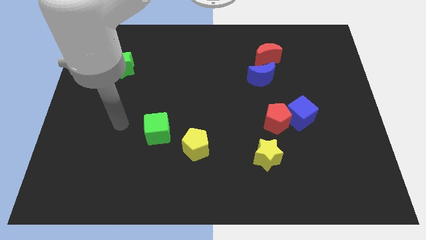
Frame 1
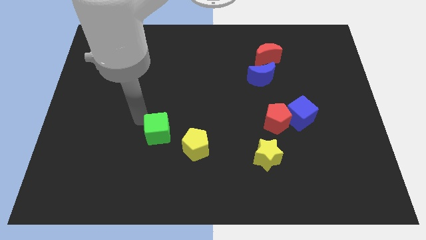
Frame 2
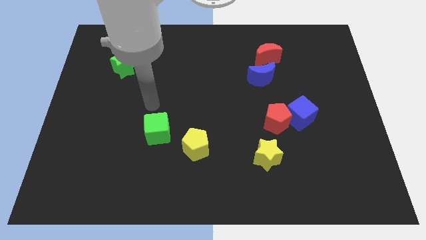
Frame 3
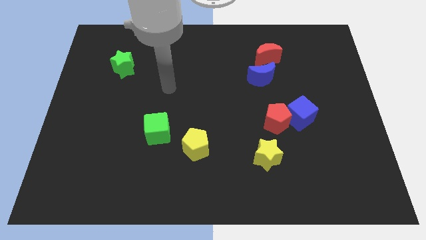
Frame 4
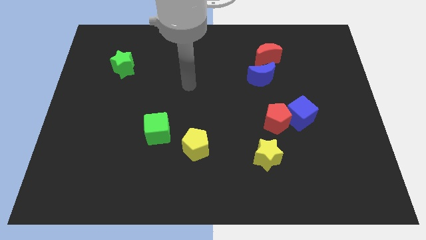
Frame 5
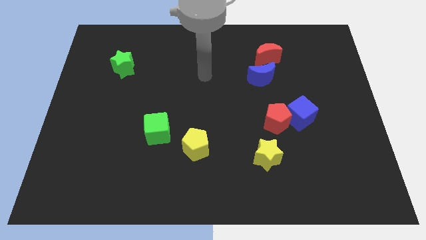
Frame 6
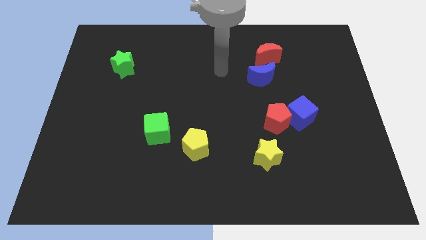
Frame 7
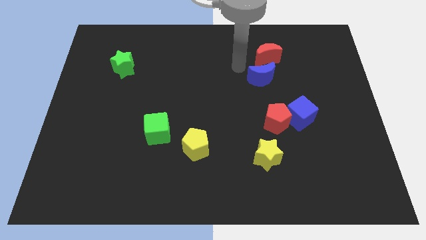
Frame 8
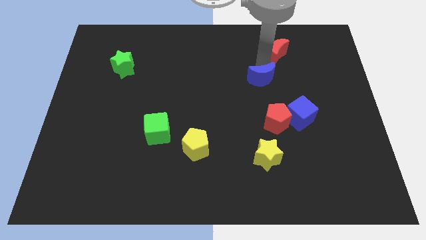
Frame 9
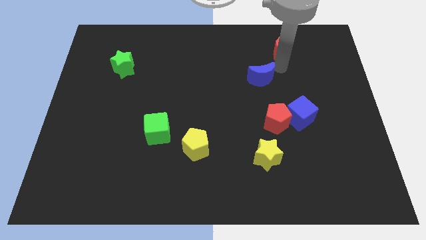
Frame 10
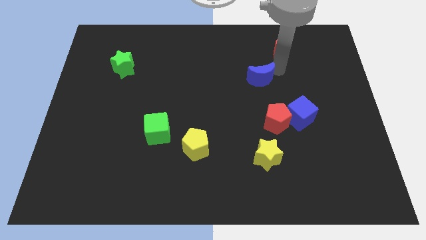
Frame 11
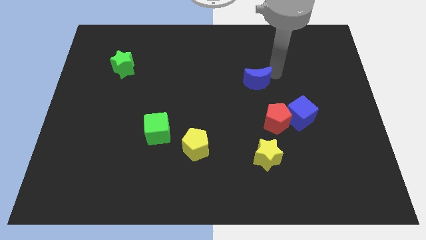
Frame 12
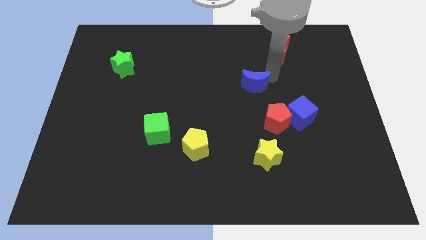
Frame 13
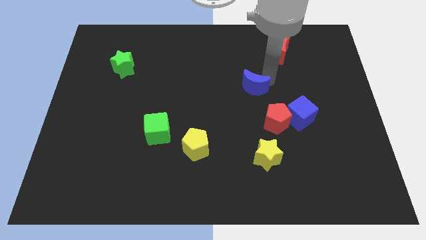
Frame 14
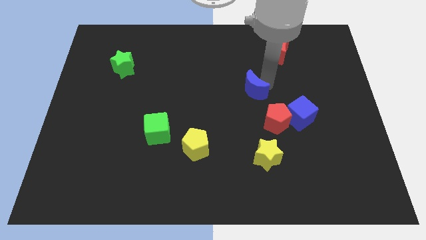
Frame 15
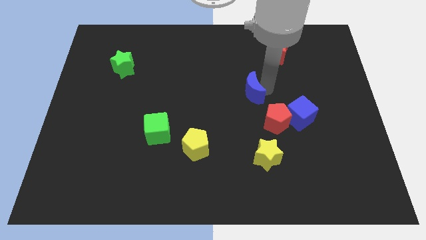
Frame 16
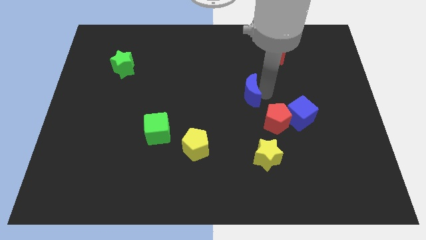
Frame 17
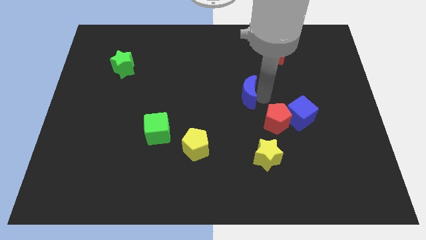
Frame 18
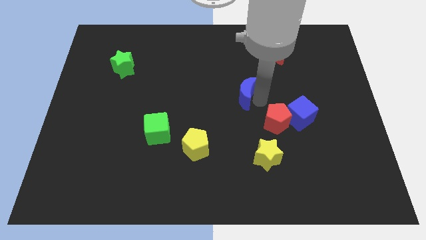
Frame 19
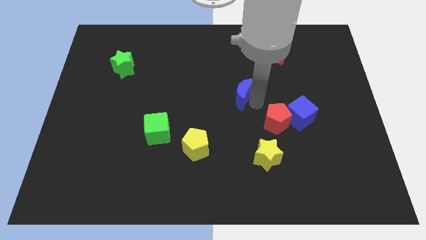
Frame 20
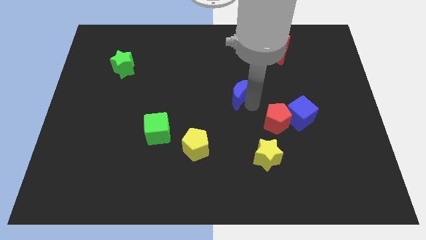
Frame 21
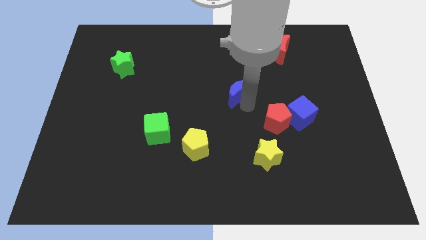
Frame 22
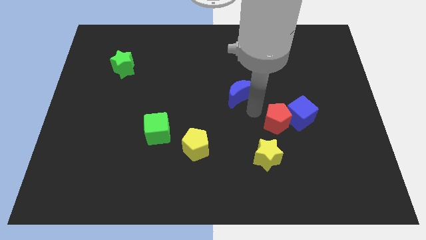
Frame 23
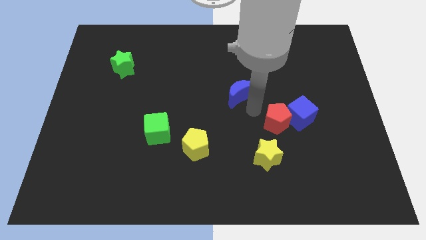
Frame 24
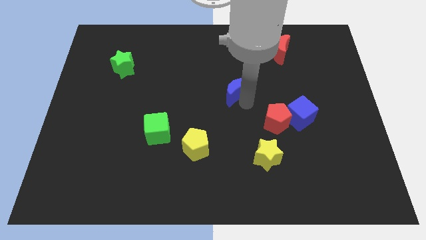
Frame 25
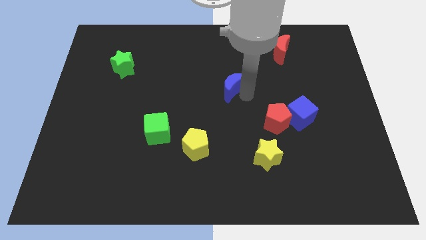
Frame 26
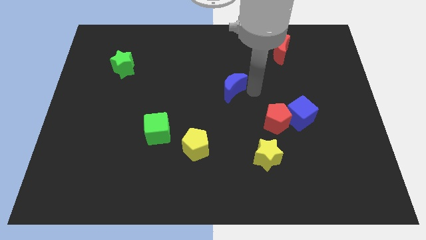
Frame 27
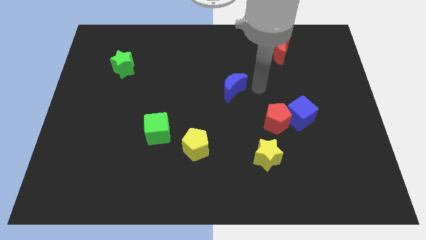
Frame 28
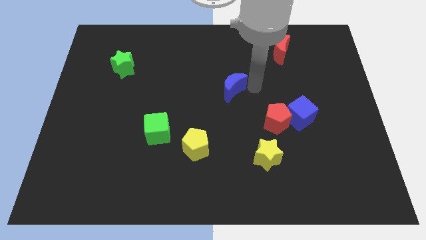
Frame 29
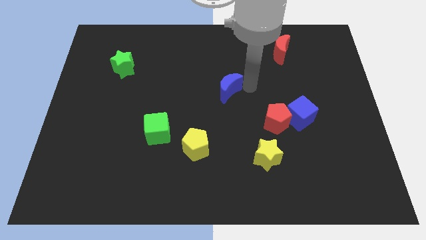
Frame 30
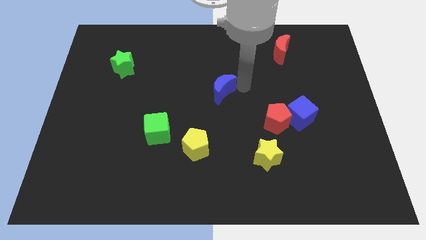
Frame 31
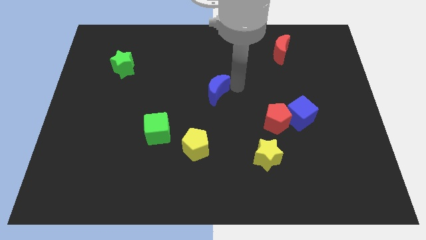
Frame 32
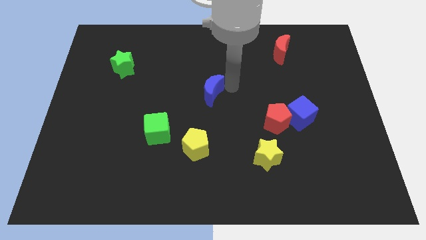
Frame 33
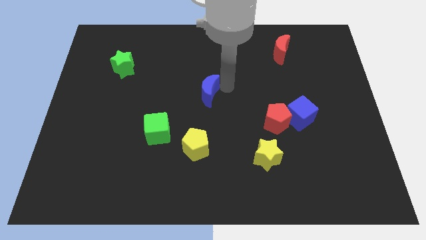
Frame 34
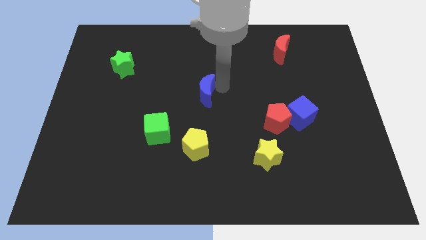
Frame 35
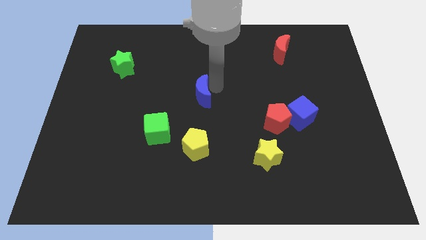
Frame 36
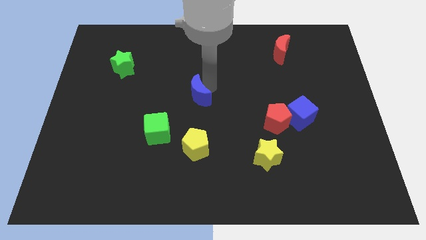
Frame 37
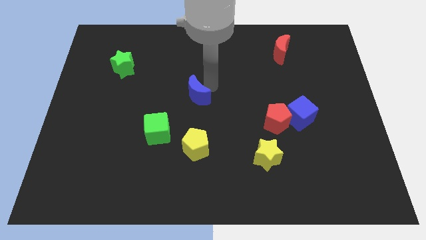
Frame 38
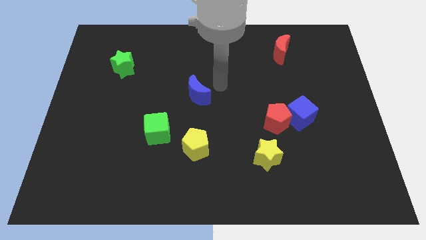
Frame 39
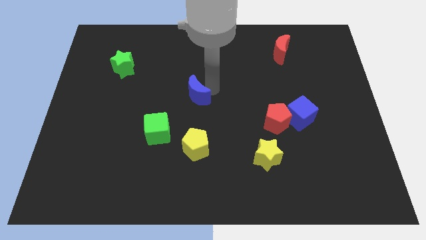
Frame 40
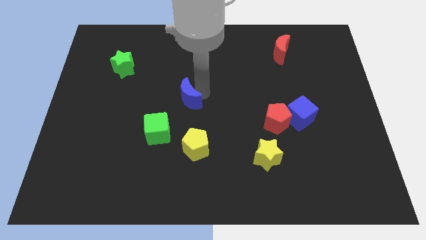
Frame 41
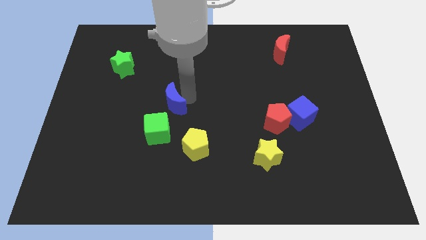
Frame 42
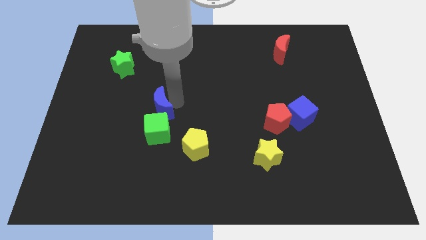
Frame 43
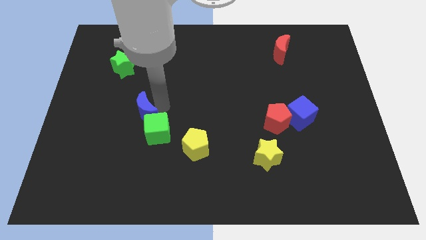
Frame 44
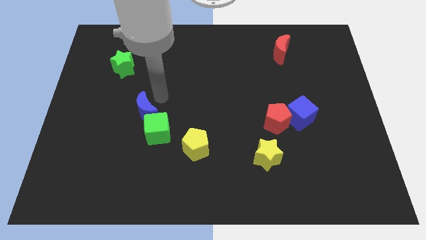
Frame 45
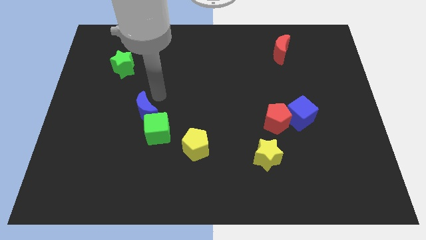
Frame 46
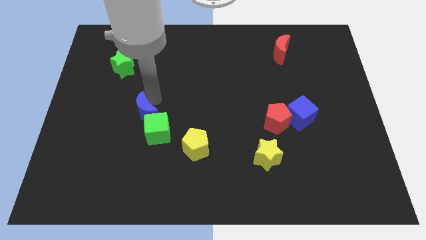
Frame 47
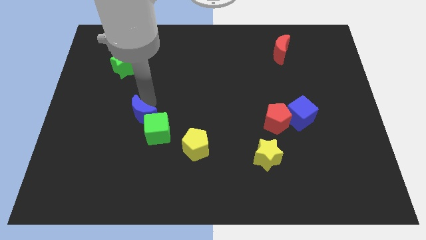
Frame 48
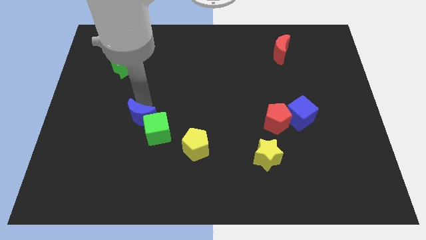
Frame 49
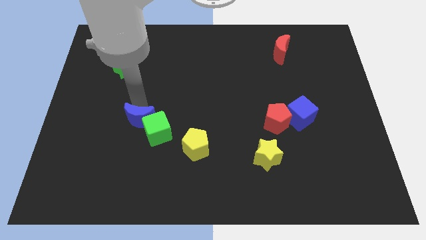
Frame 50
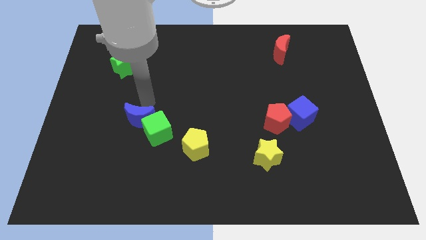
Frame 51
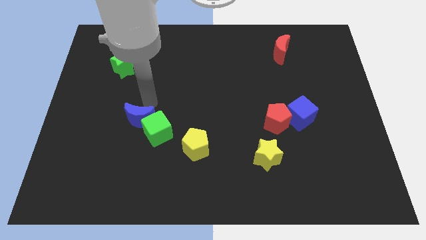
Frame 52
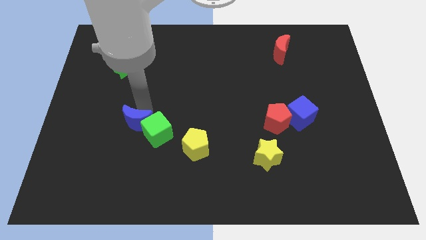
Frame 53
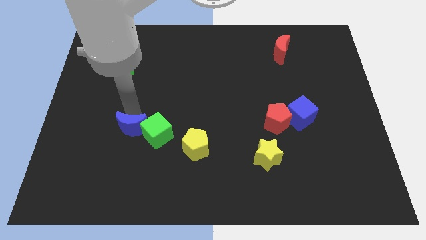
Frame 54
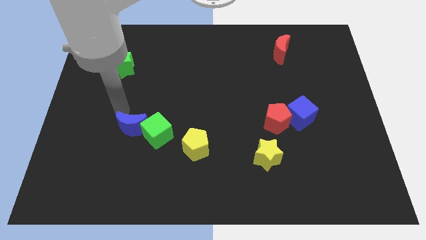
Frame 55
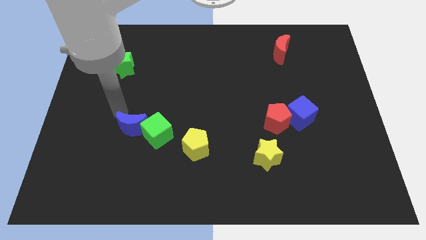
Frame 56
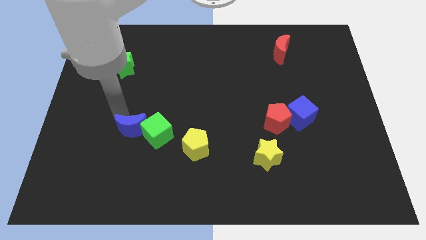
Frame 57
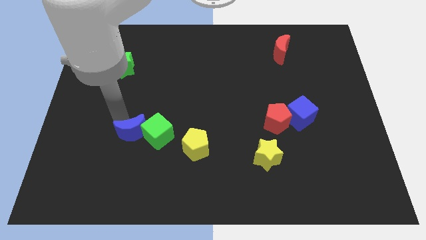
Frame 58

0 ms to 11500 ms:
push the blue moon left of the yellow pentagon

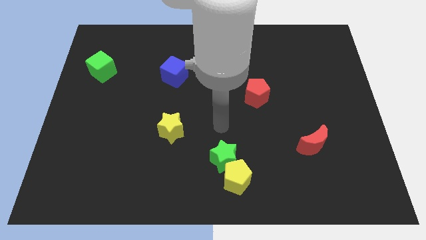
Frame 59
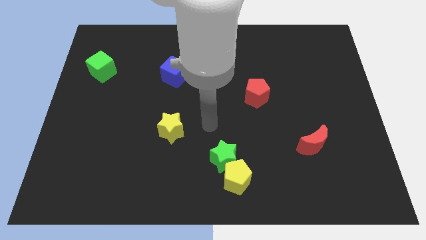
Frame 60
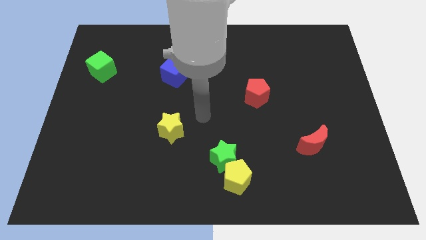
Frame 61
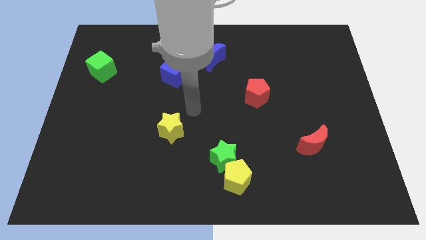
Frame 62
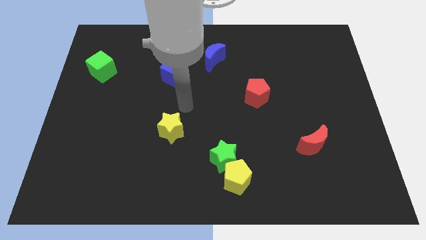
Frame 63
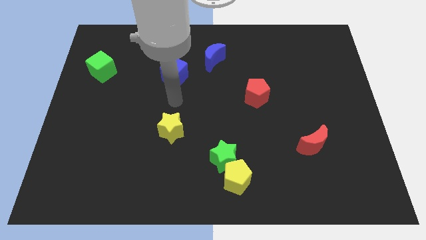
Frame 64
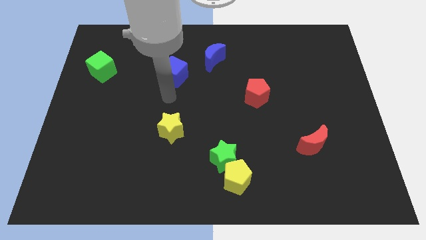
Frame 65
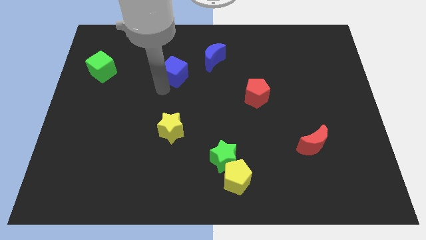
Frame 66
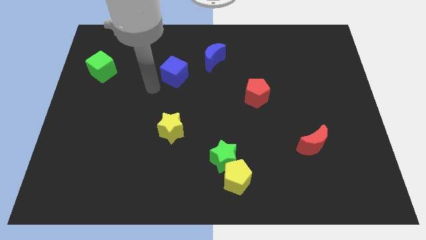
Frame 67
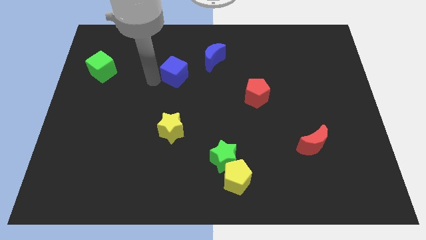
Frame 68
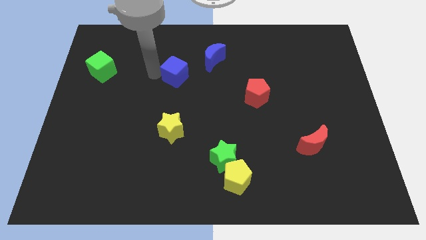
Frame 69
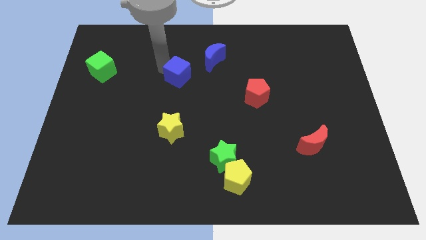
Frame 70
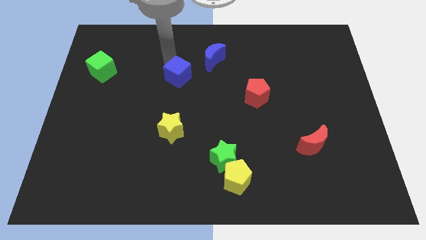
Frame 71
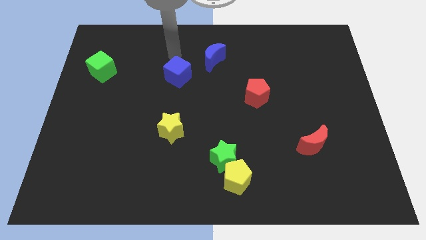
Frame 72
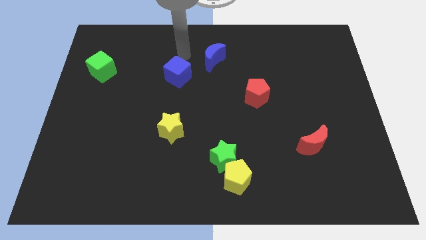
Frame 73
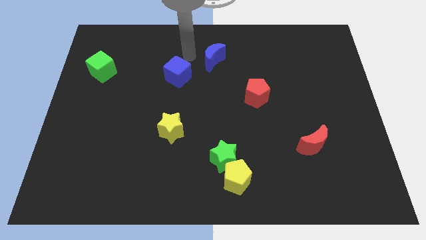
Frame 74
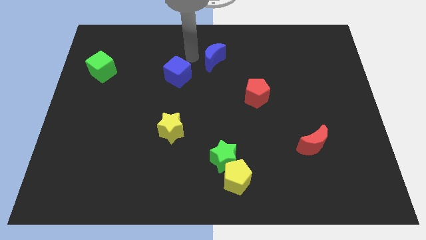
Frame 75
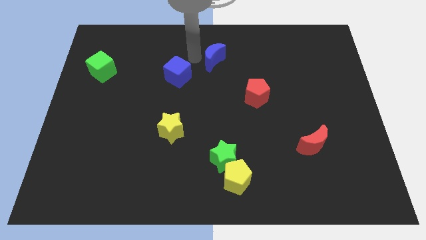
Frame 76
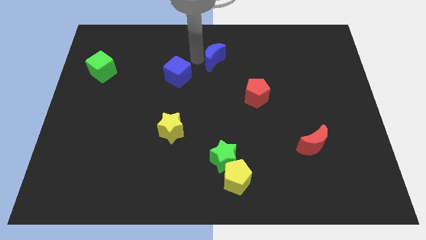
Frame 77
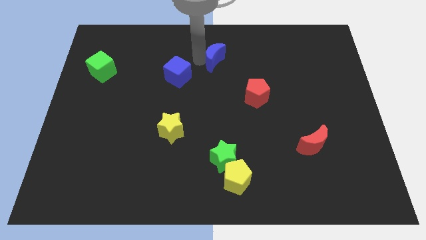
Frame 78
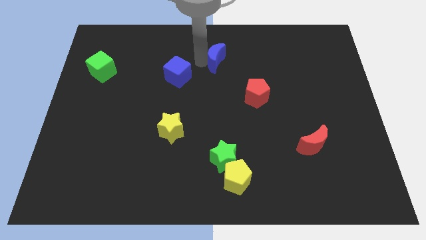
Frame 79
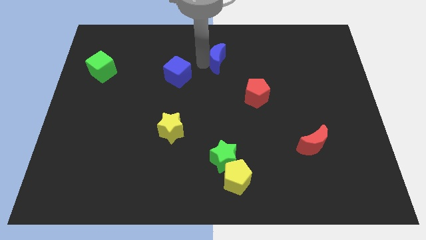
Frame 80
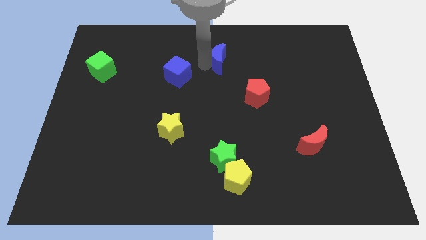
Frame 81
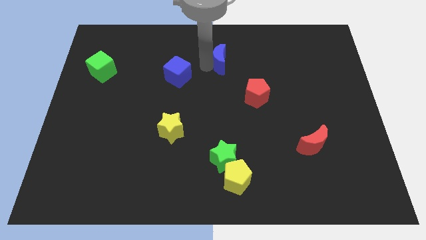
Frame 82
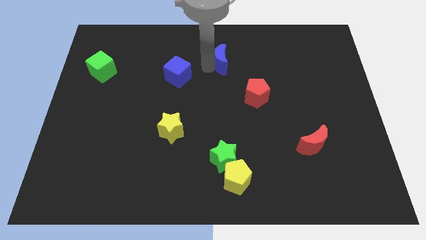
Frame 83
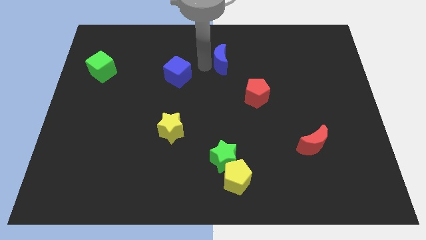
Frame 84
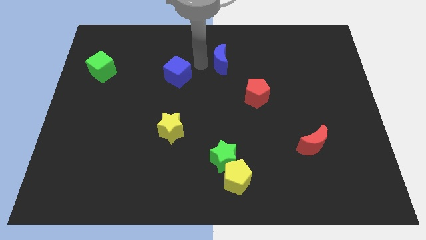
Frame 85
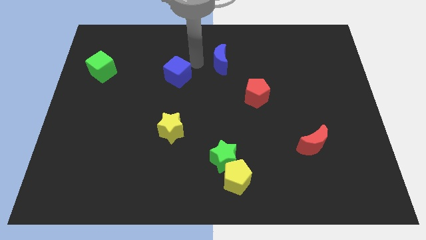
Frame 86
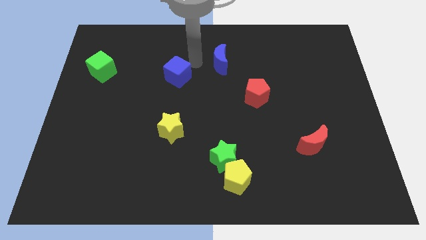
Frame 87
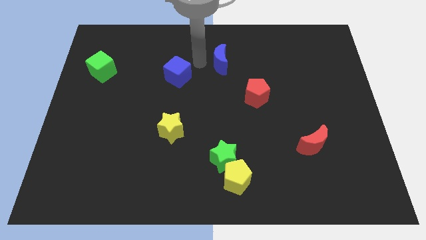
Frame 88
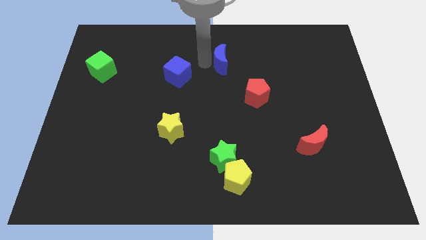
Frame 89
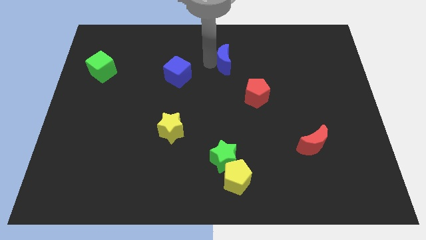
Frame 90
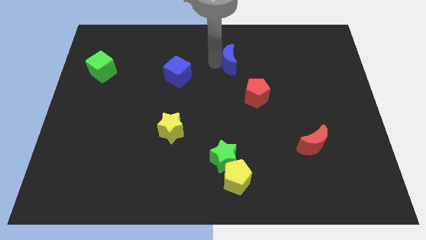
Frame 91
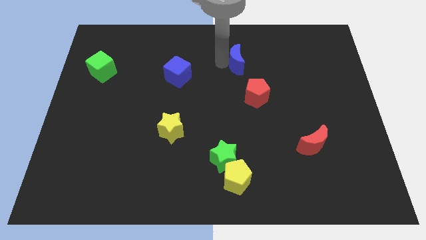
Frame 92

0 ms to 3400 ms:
slide the blue moon to the top of the red pentagon
